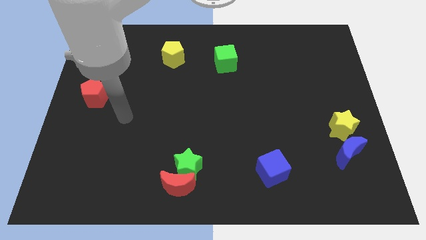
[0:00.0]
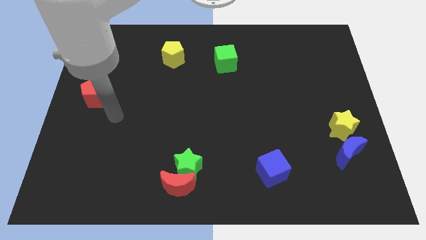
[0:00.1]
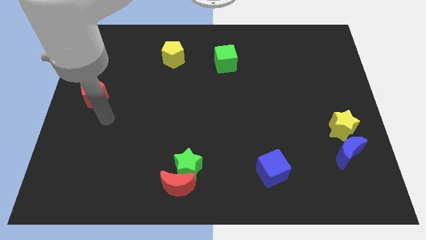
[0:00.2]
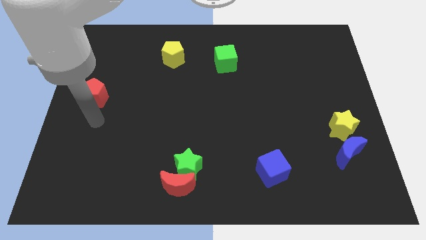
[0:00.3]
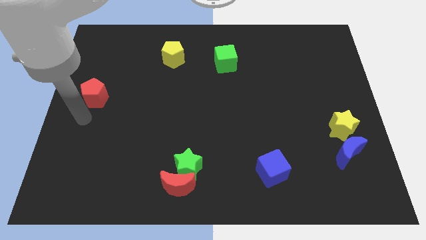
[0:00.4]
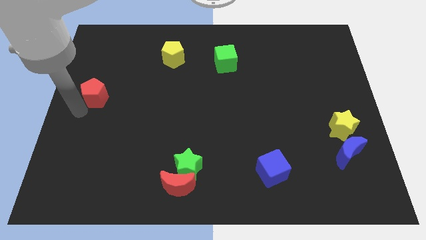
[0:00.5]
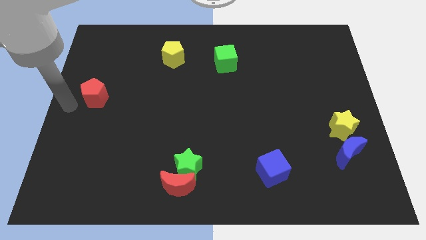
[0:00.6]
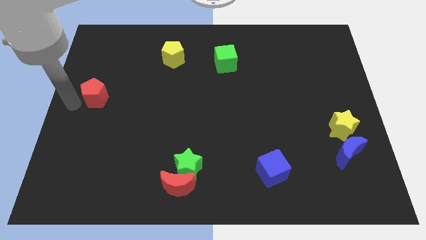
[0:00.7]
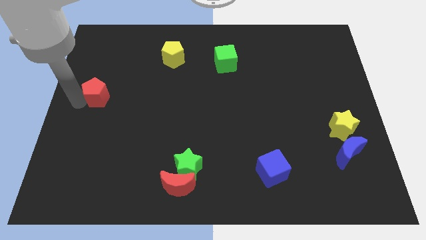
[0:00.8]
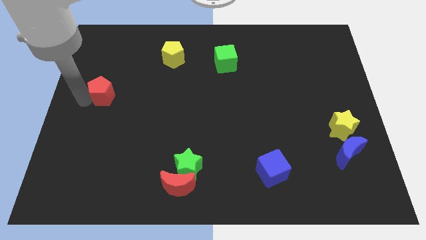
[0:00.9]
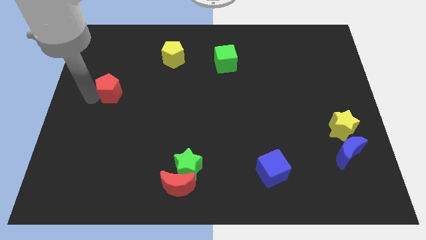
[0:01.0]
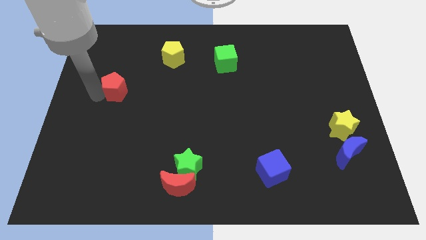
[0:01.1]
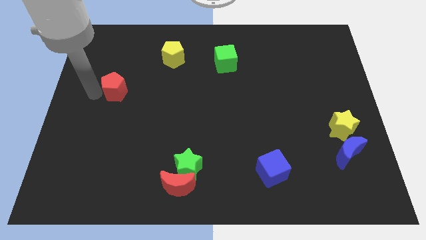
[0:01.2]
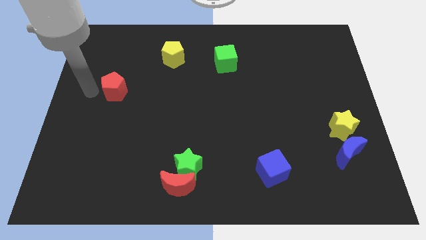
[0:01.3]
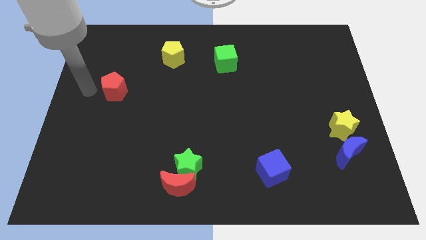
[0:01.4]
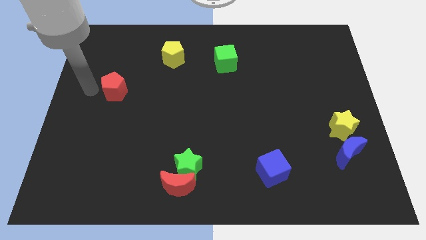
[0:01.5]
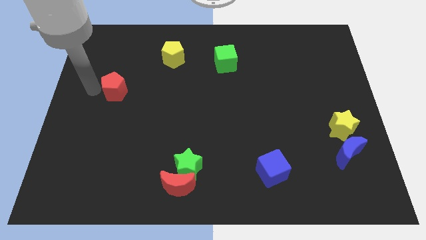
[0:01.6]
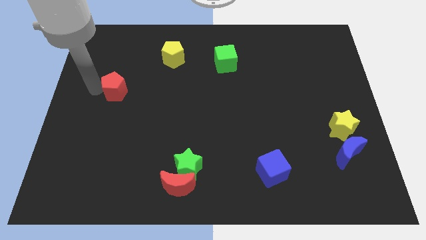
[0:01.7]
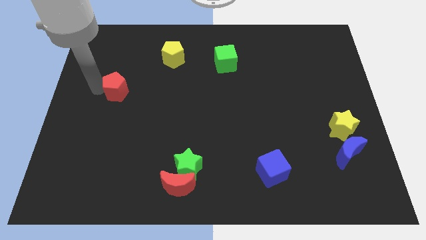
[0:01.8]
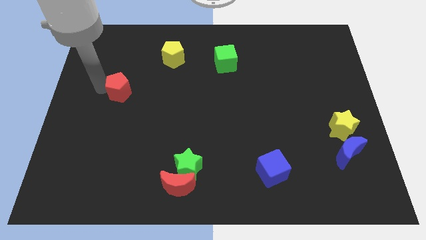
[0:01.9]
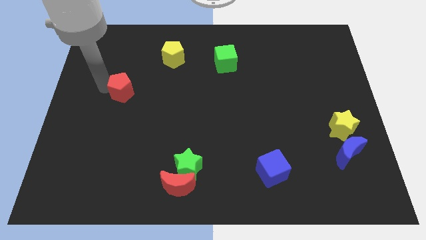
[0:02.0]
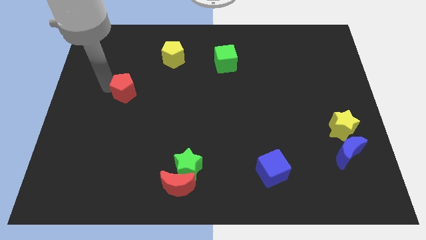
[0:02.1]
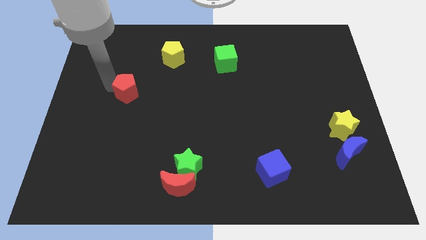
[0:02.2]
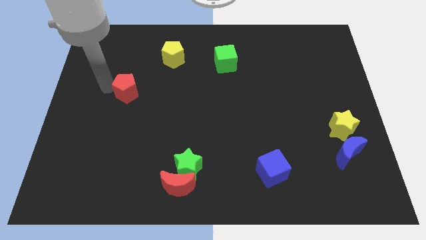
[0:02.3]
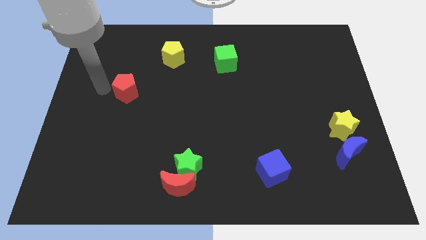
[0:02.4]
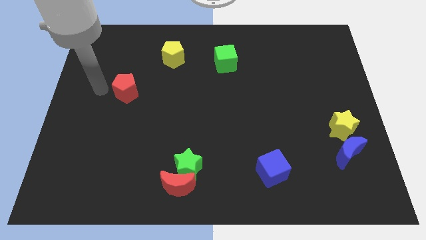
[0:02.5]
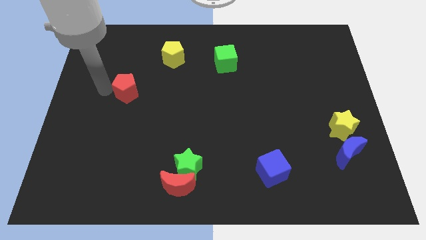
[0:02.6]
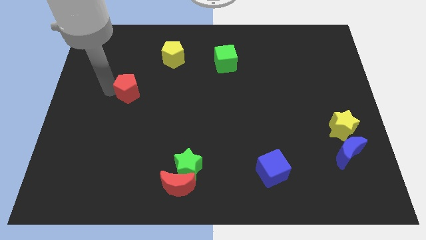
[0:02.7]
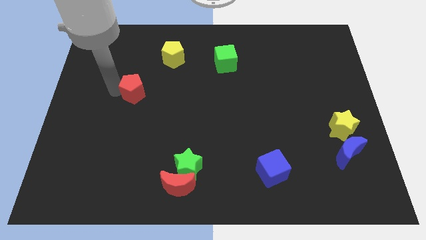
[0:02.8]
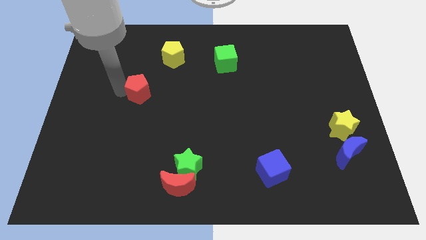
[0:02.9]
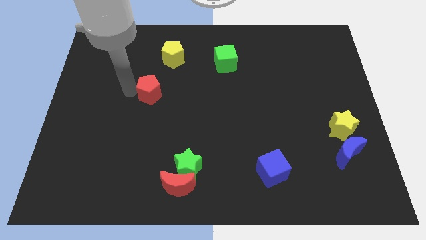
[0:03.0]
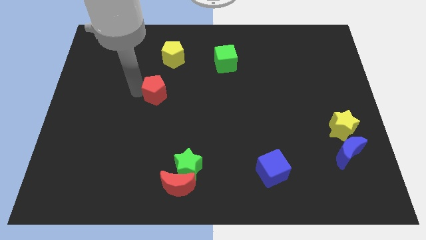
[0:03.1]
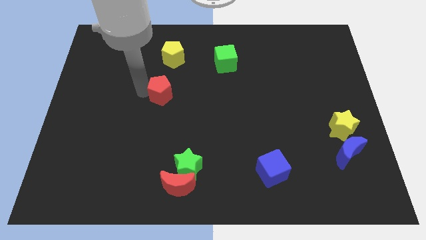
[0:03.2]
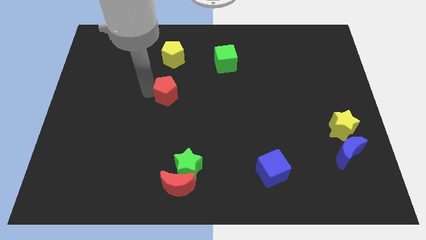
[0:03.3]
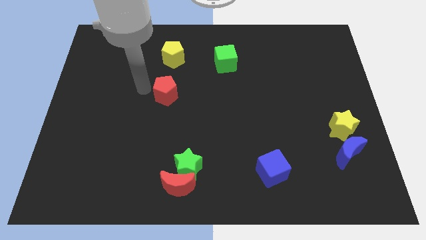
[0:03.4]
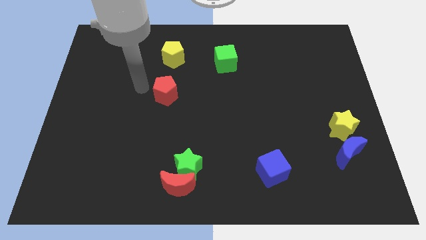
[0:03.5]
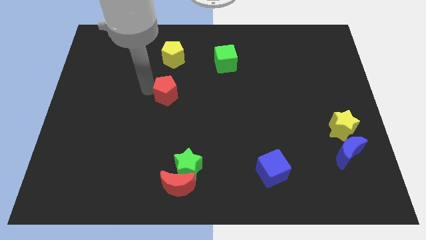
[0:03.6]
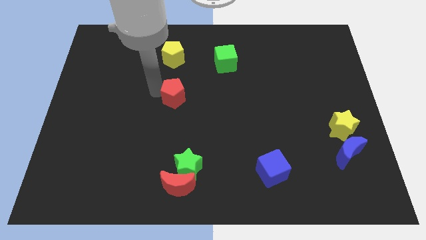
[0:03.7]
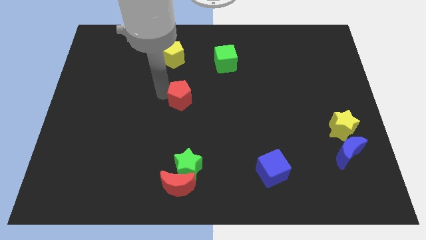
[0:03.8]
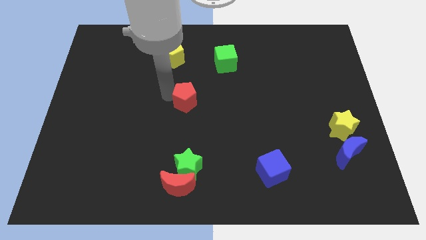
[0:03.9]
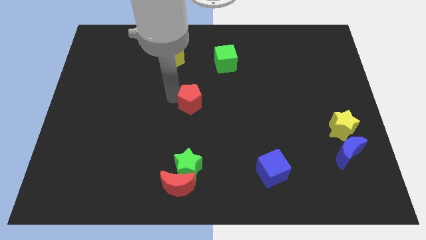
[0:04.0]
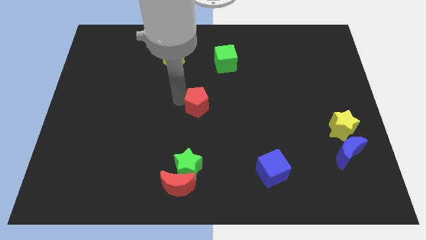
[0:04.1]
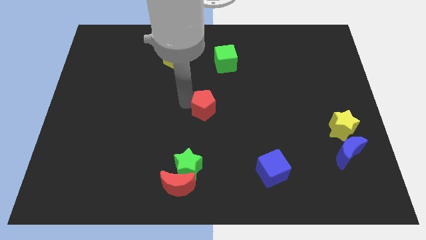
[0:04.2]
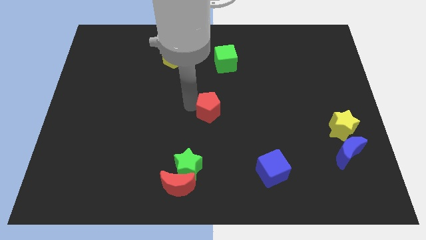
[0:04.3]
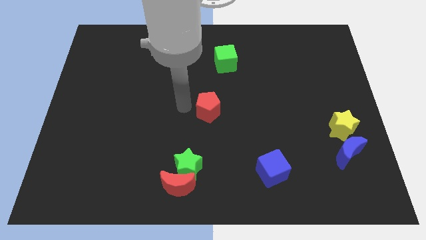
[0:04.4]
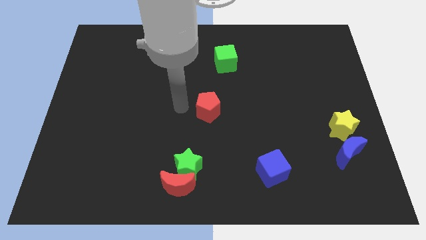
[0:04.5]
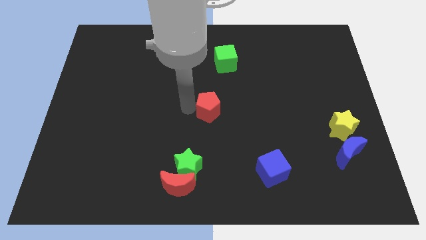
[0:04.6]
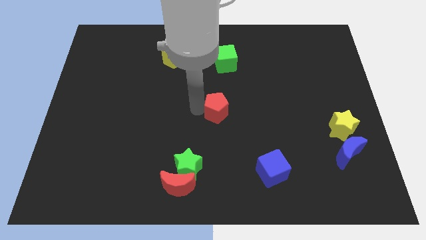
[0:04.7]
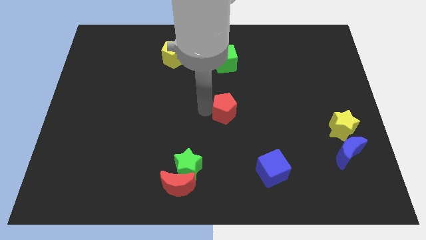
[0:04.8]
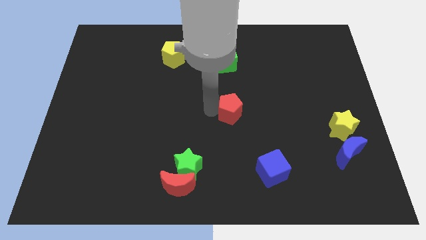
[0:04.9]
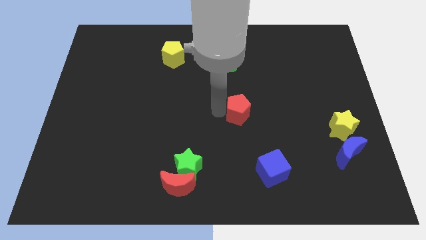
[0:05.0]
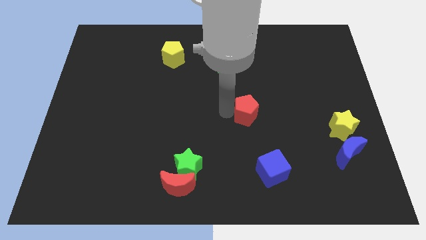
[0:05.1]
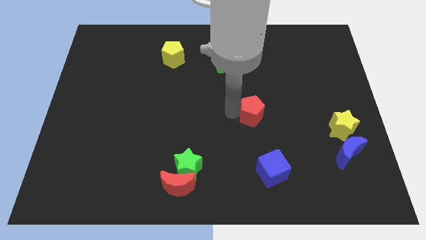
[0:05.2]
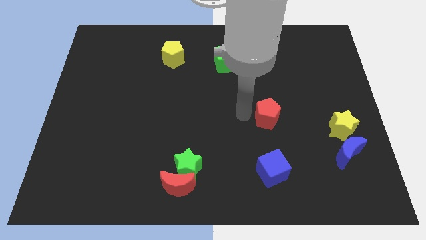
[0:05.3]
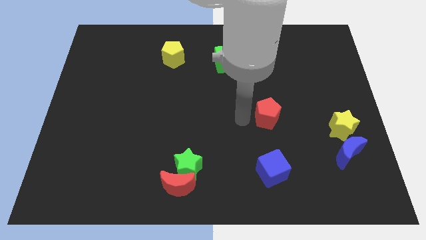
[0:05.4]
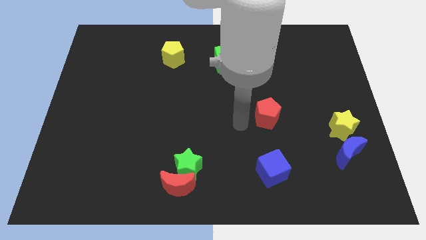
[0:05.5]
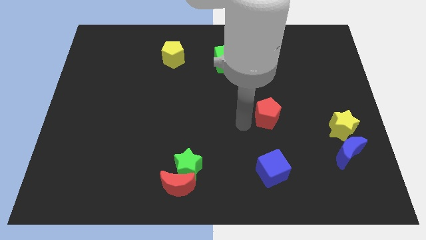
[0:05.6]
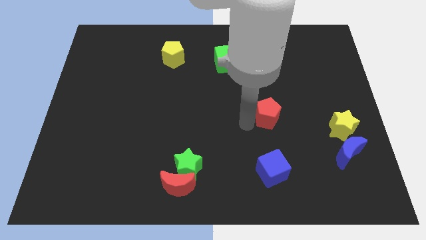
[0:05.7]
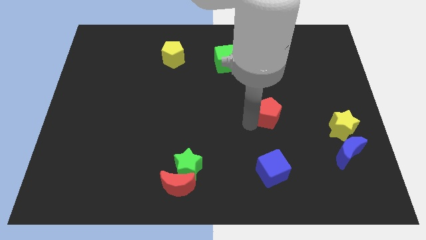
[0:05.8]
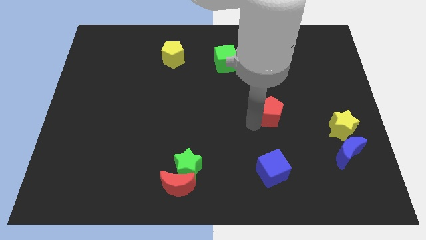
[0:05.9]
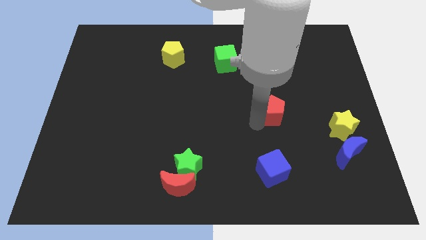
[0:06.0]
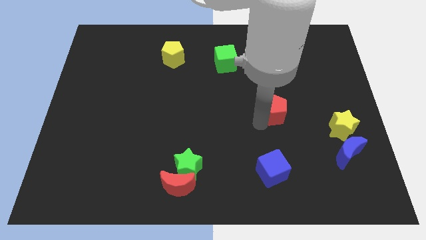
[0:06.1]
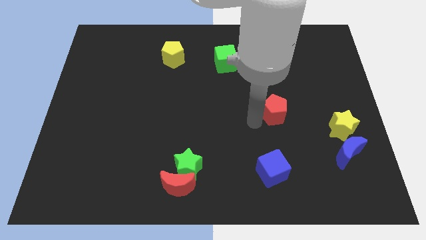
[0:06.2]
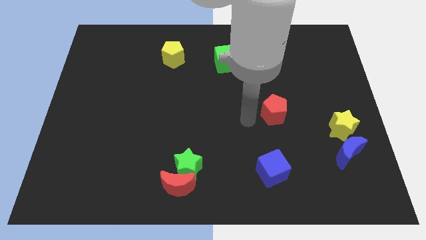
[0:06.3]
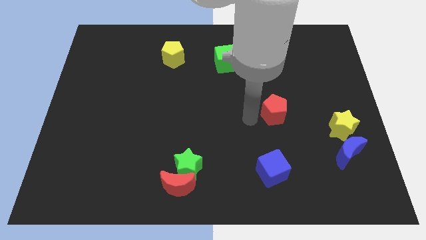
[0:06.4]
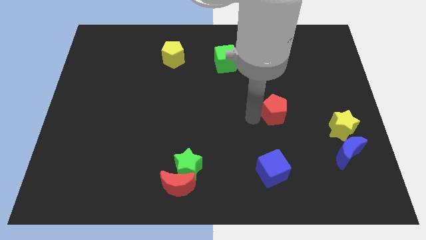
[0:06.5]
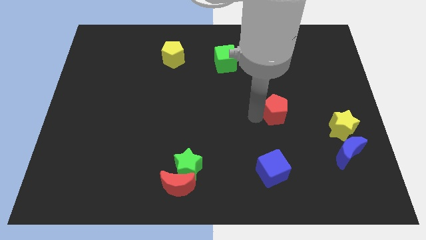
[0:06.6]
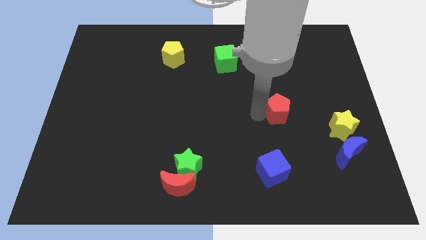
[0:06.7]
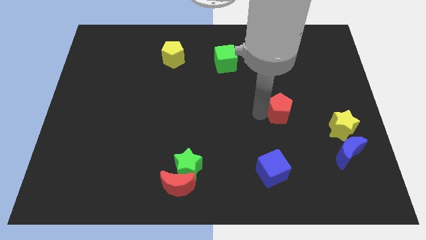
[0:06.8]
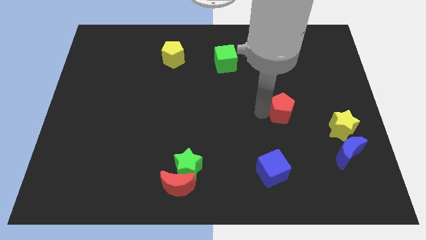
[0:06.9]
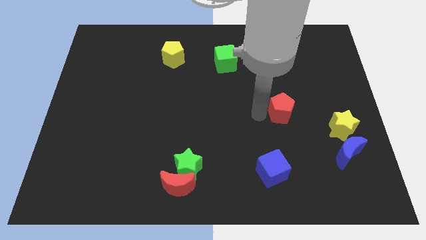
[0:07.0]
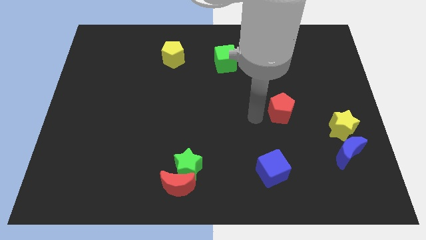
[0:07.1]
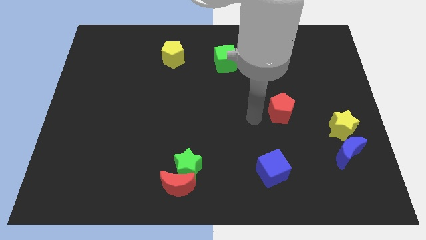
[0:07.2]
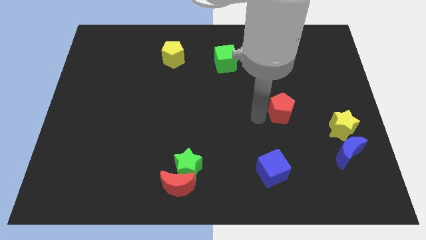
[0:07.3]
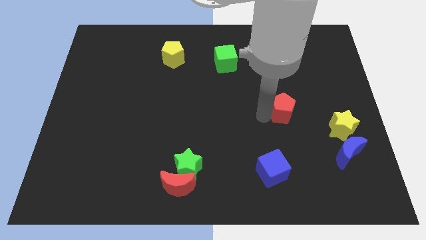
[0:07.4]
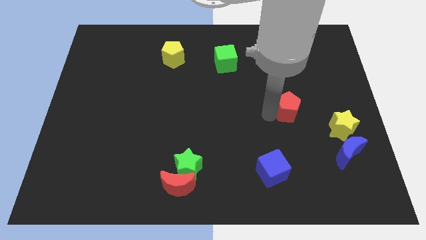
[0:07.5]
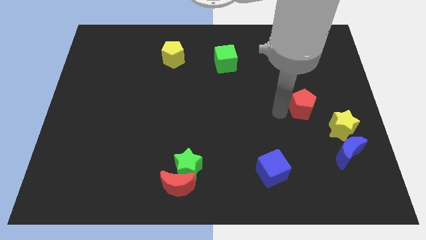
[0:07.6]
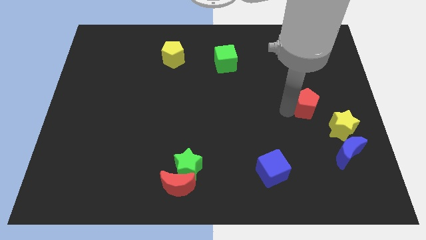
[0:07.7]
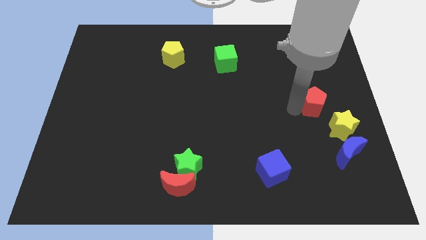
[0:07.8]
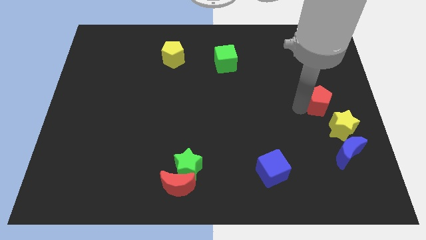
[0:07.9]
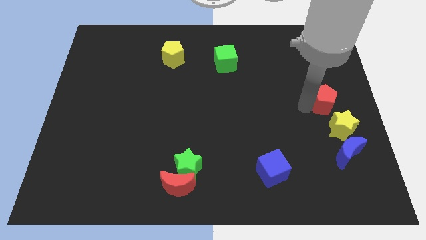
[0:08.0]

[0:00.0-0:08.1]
push the red pentagon to the center right
